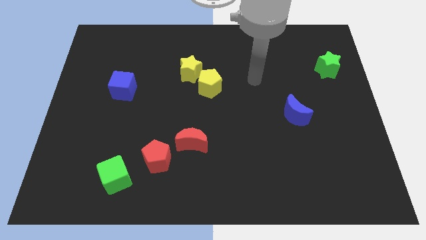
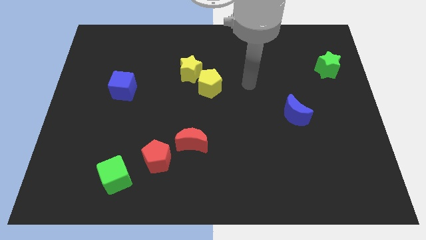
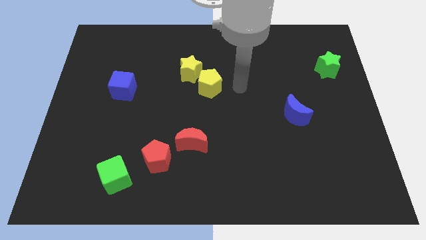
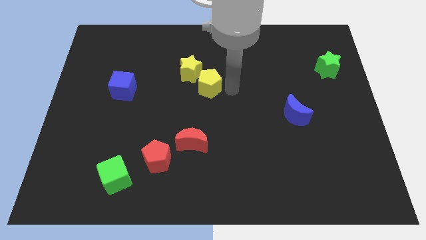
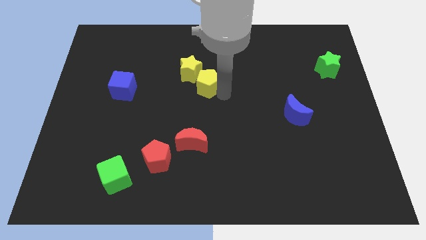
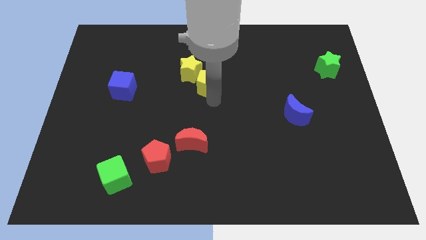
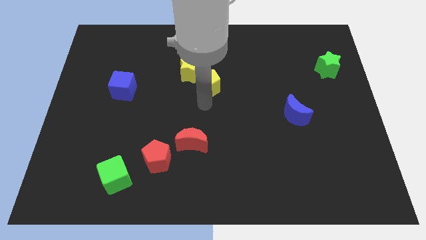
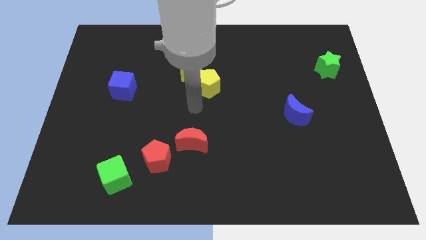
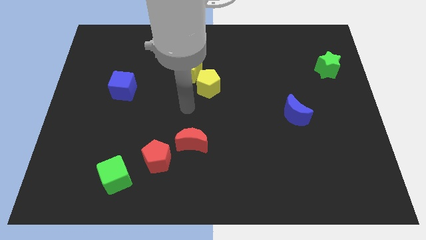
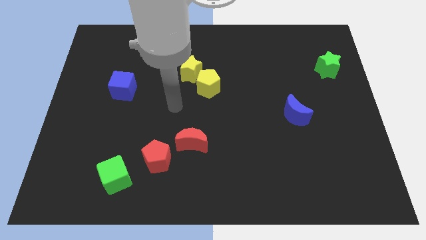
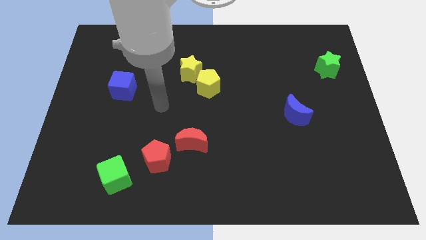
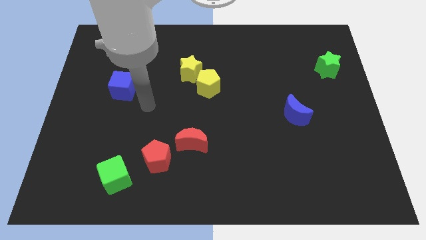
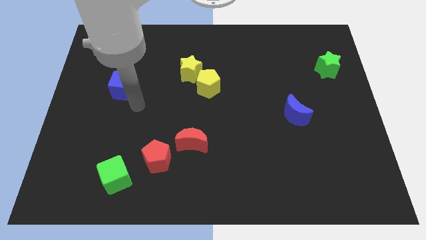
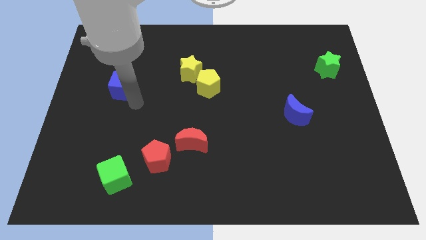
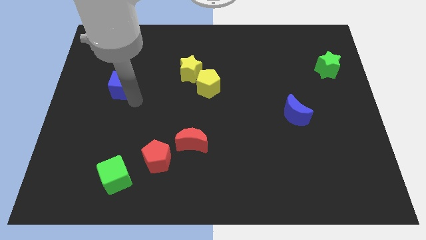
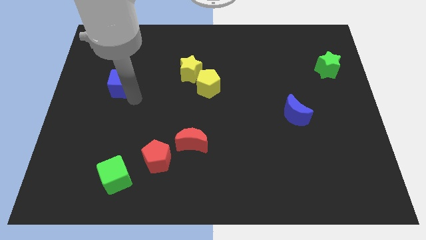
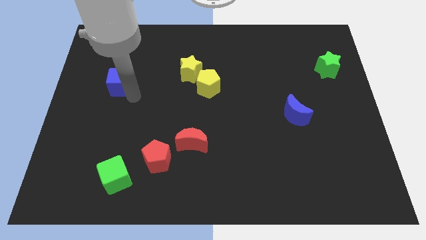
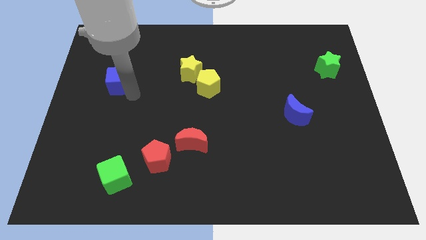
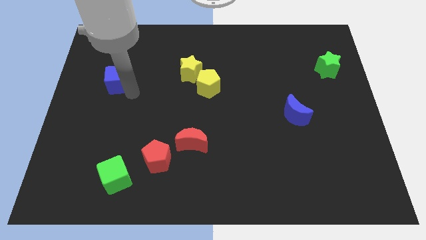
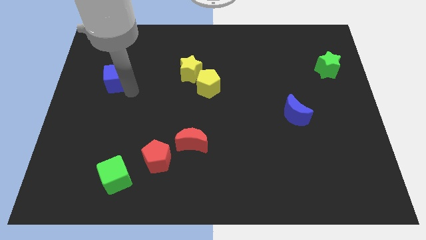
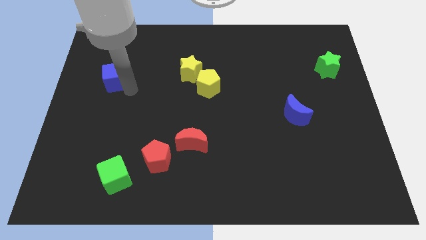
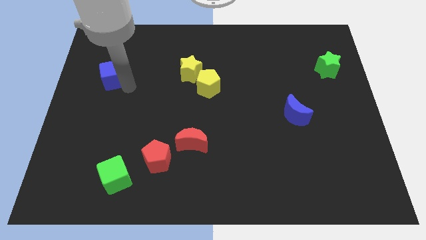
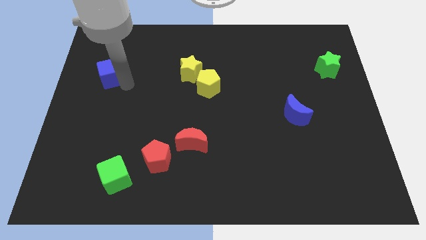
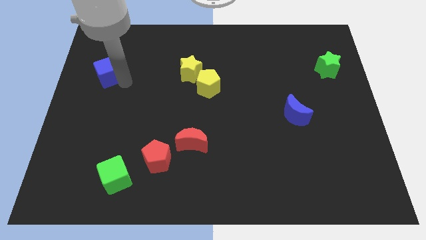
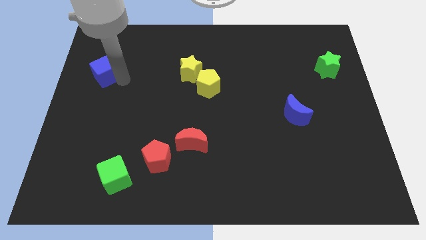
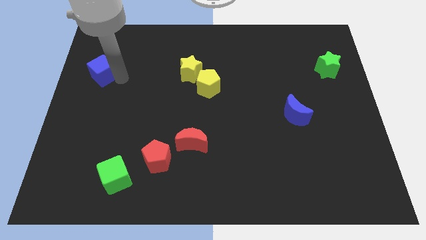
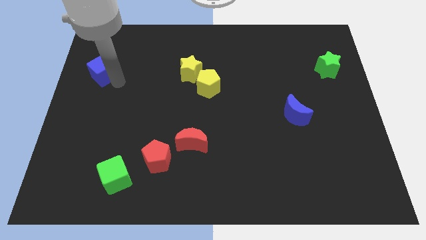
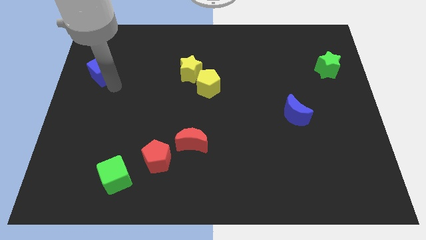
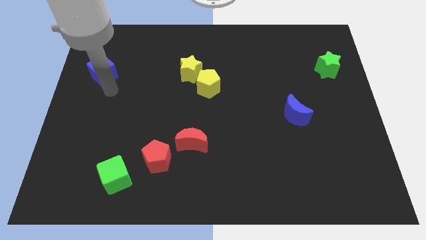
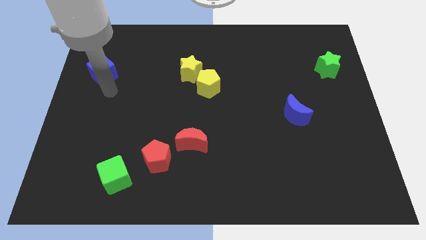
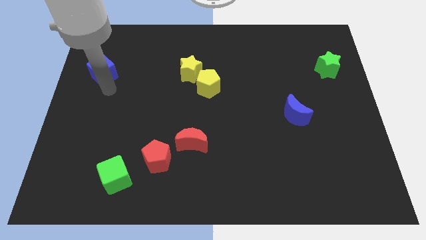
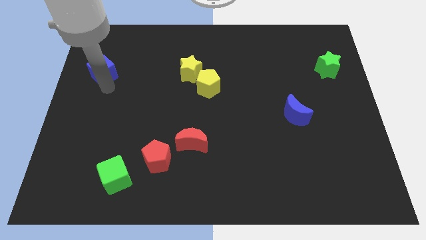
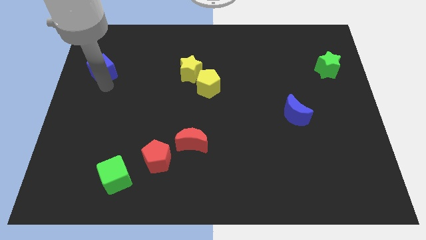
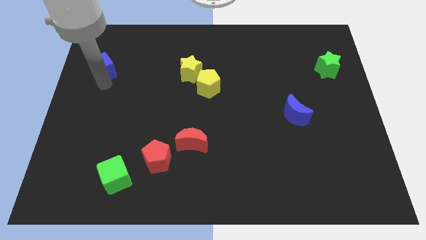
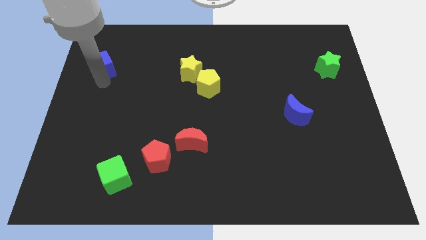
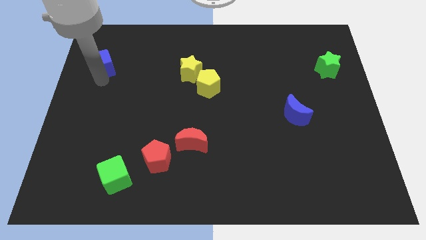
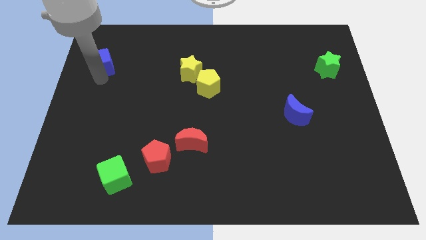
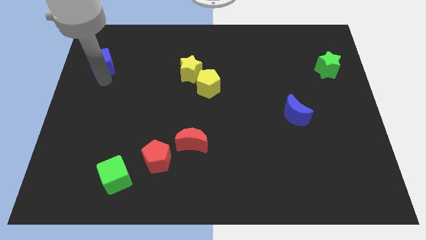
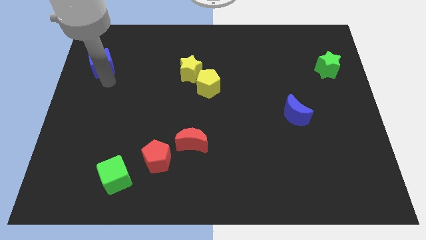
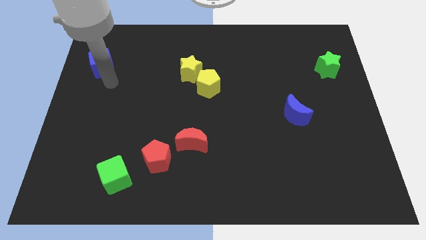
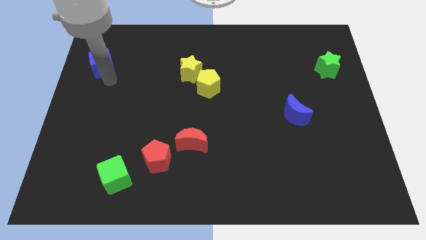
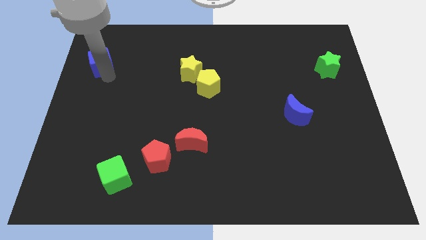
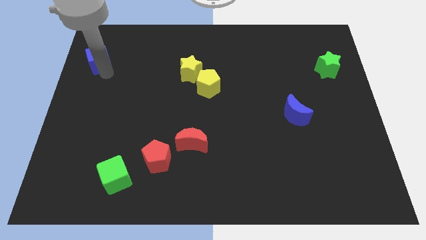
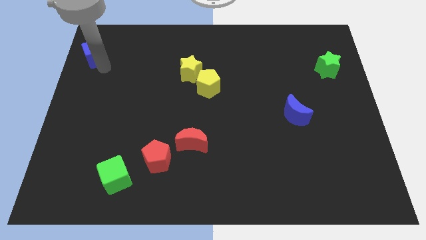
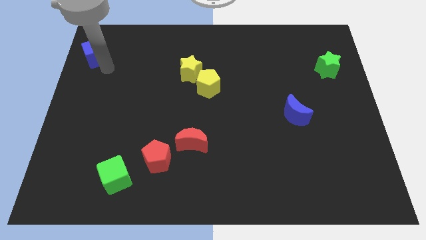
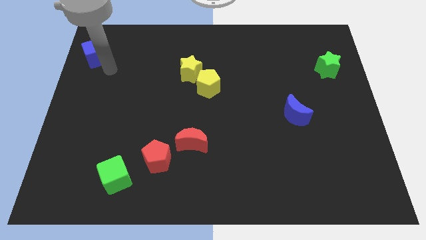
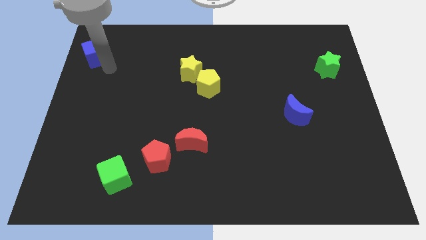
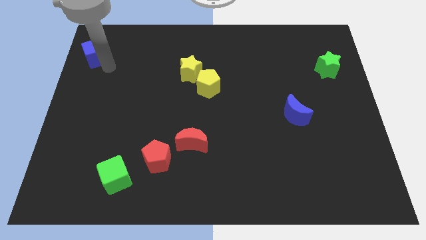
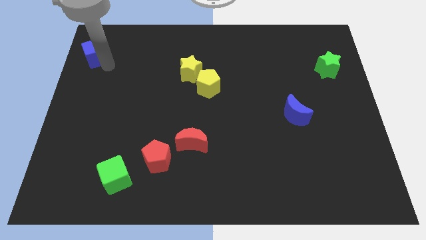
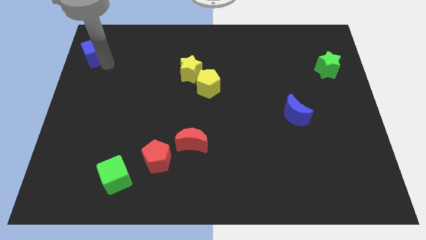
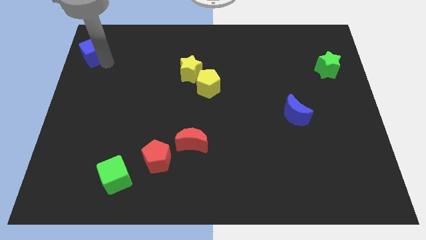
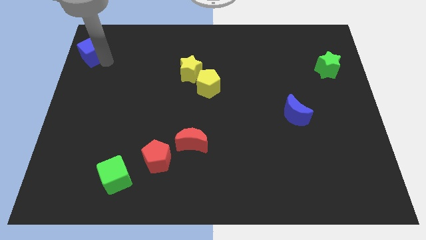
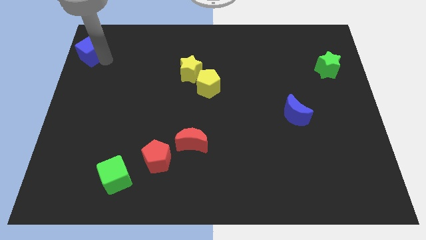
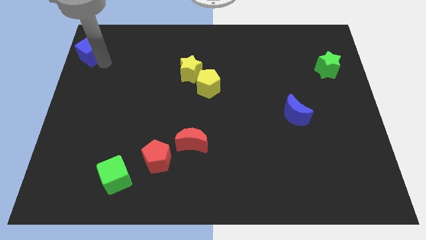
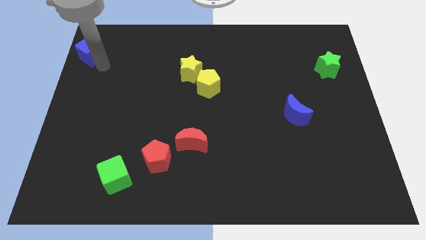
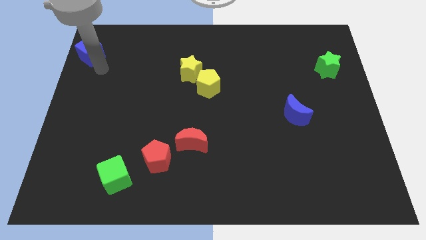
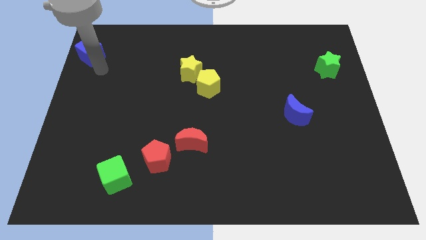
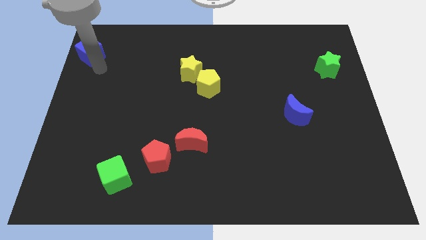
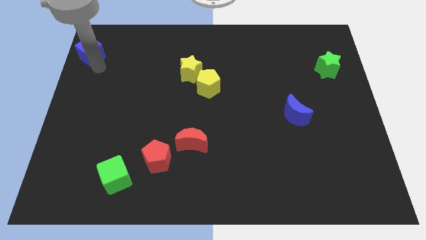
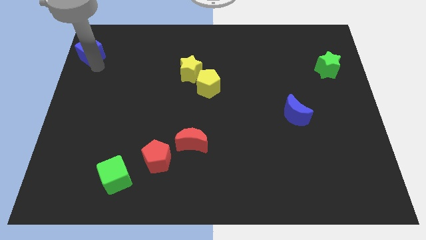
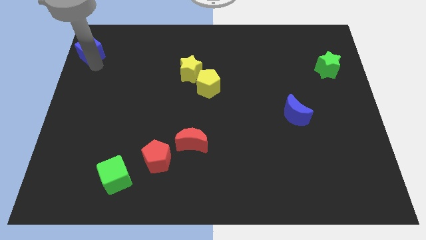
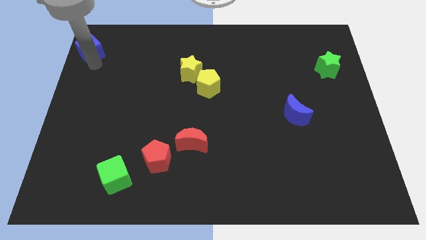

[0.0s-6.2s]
move the blue cube to the top left of the board

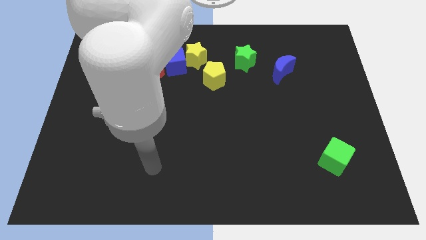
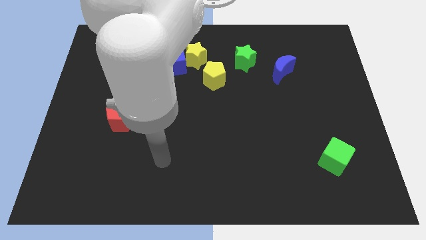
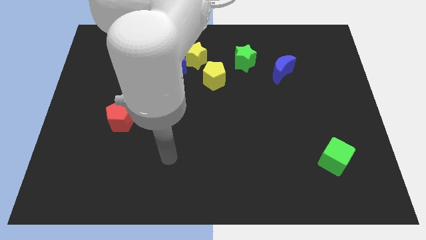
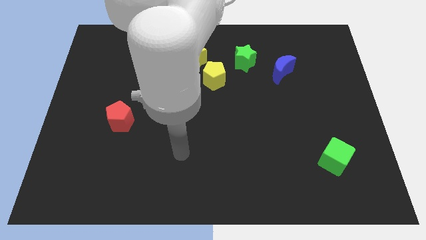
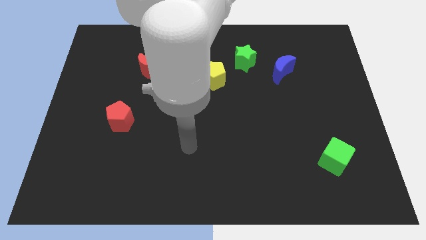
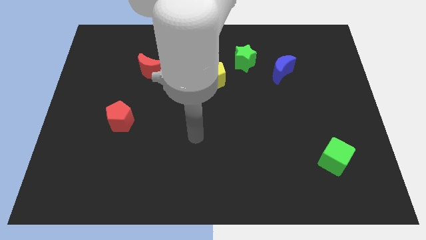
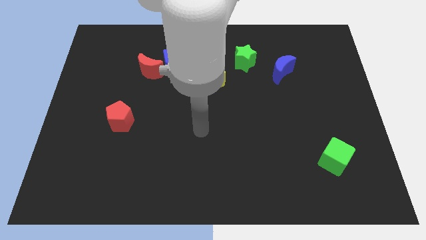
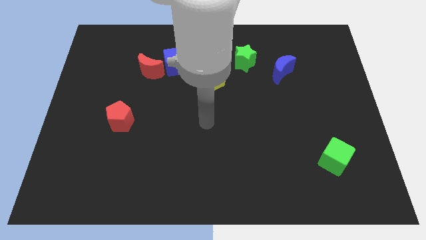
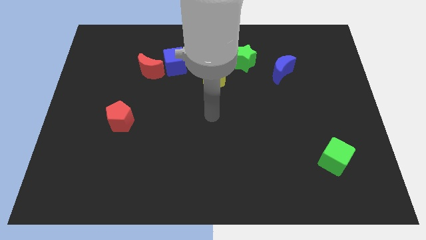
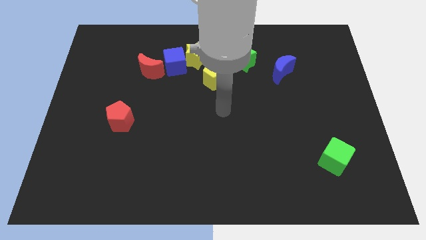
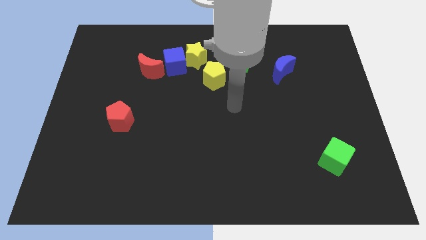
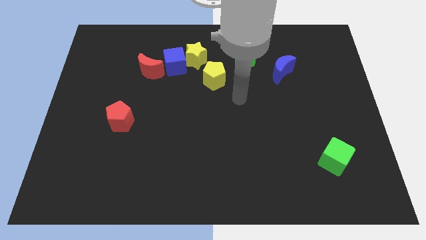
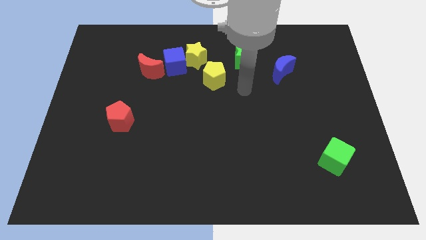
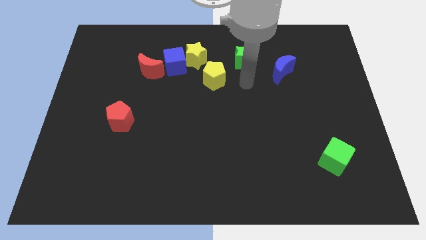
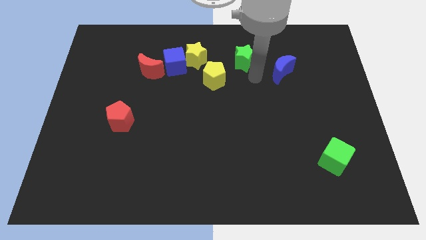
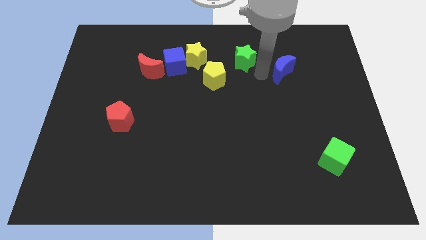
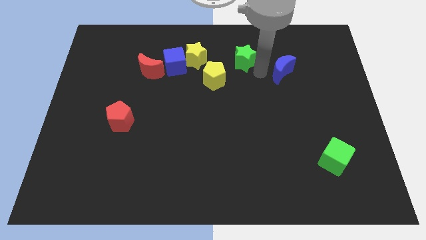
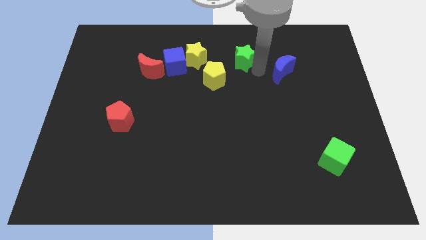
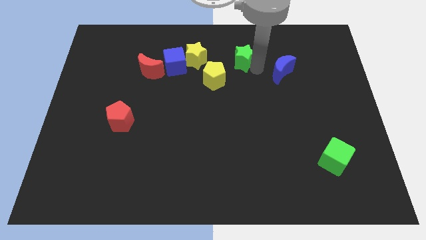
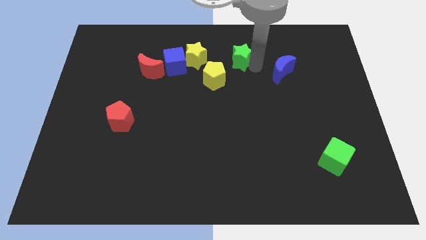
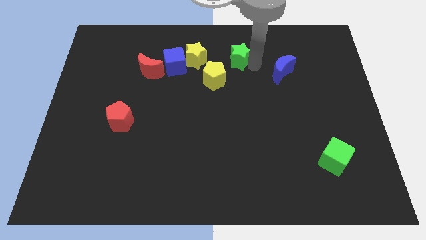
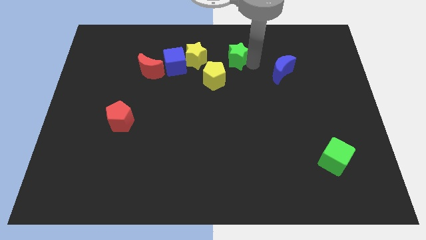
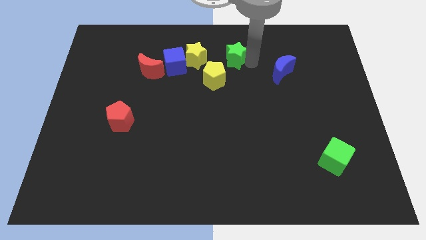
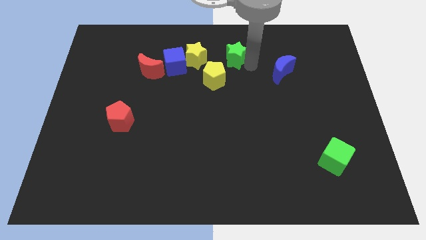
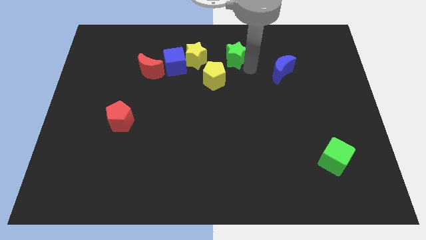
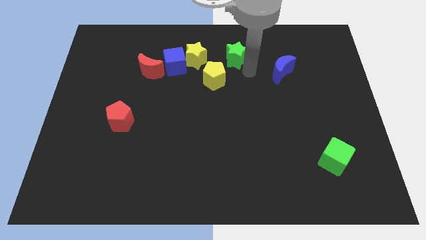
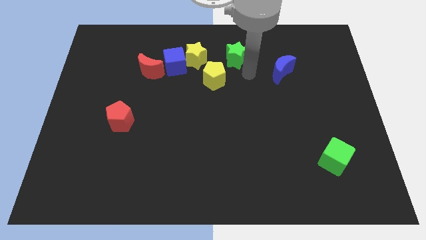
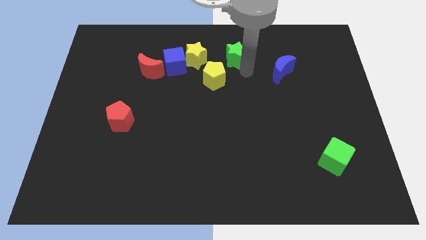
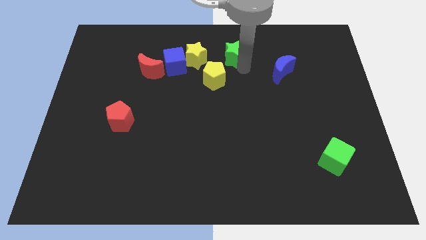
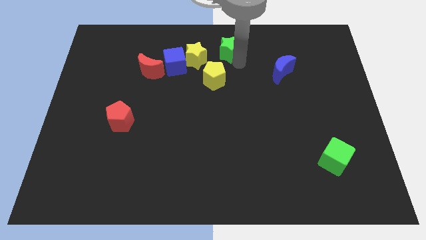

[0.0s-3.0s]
push the green star to the towards your base
